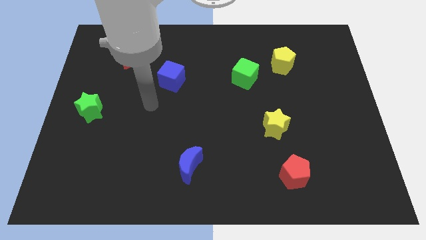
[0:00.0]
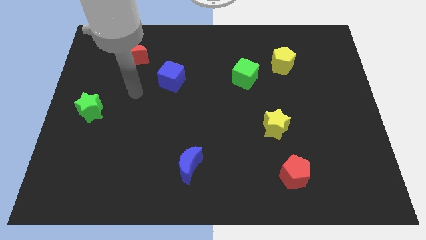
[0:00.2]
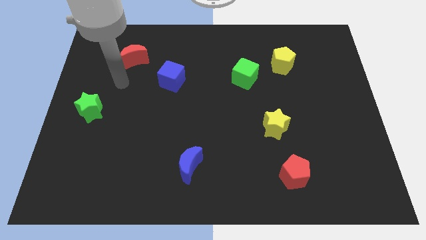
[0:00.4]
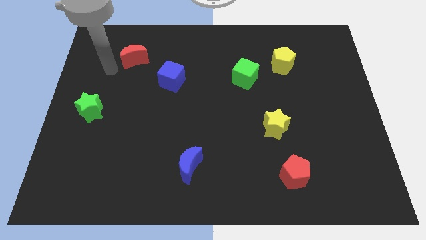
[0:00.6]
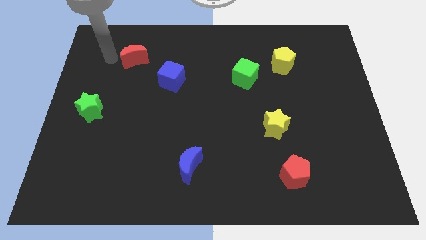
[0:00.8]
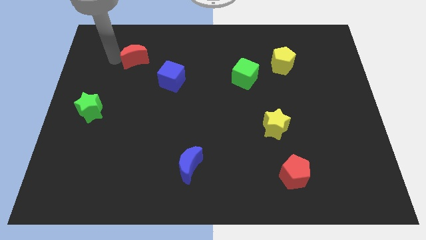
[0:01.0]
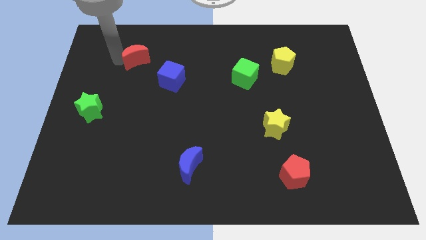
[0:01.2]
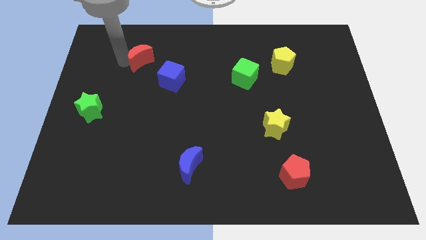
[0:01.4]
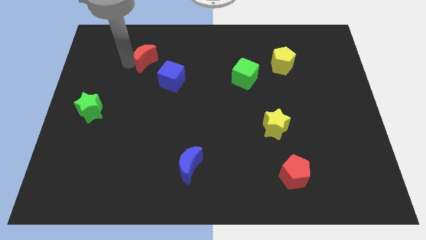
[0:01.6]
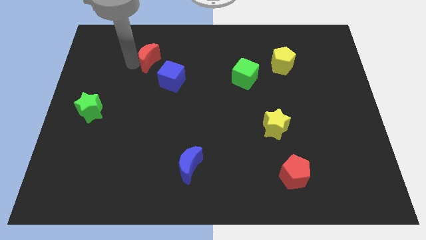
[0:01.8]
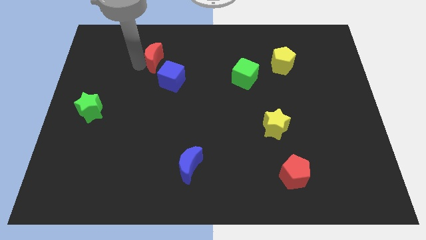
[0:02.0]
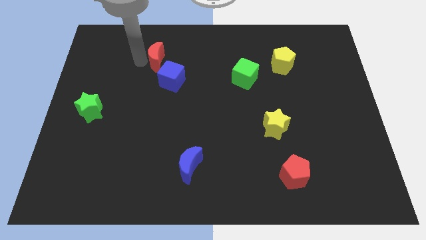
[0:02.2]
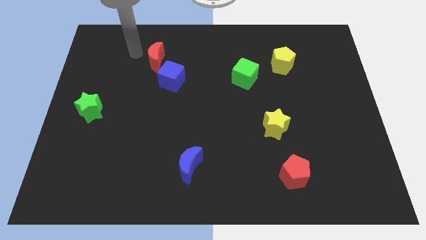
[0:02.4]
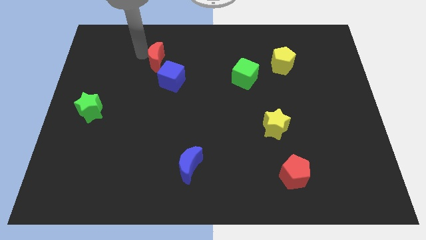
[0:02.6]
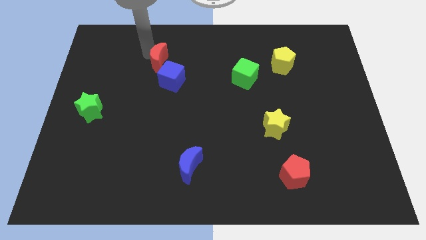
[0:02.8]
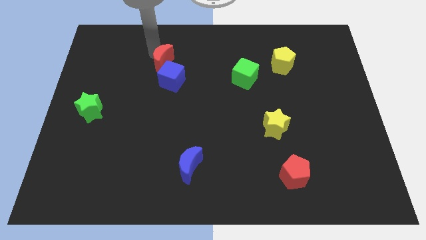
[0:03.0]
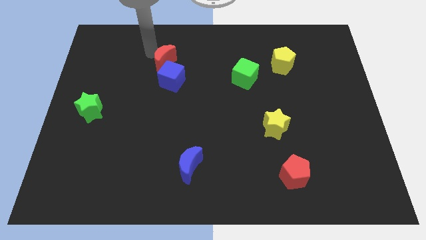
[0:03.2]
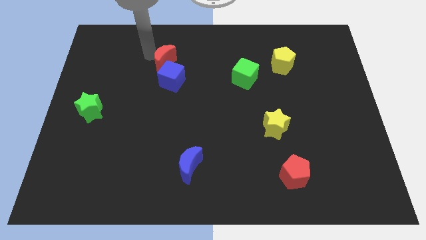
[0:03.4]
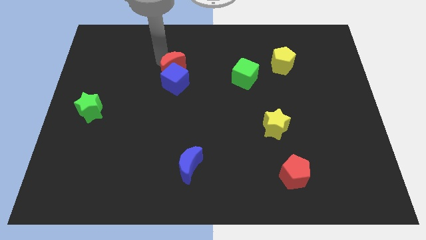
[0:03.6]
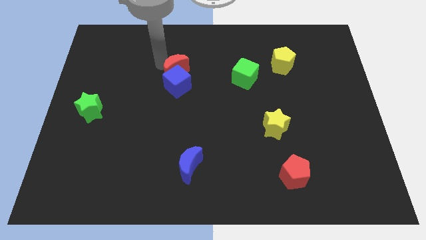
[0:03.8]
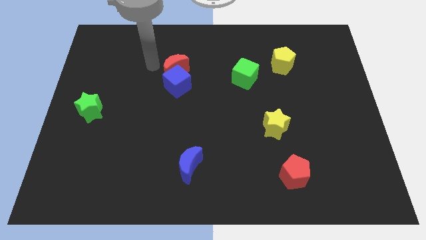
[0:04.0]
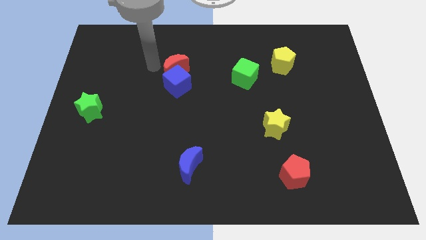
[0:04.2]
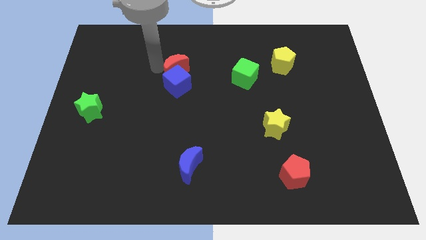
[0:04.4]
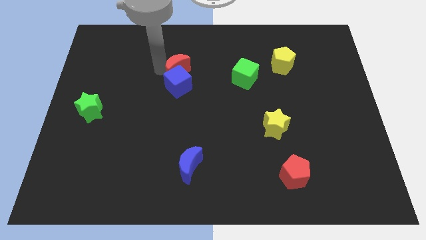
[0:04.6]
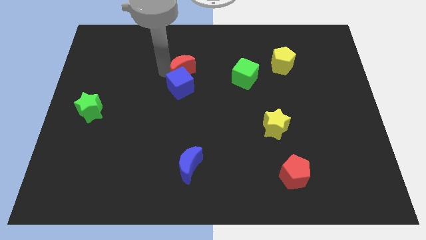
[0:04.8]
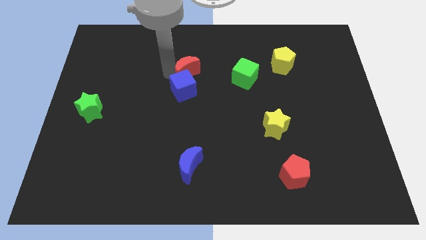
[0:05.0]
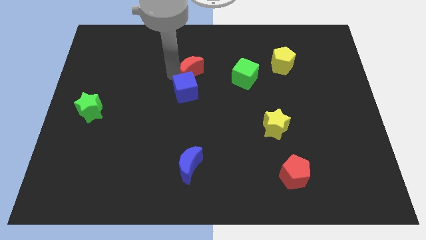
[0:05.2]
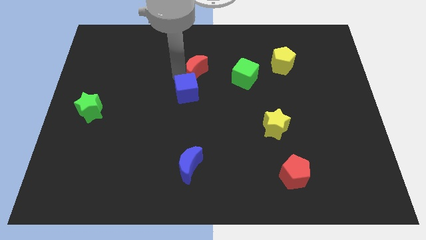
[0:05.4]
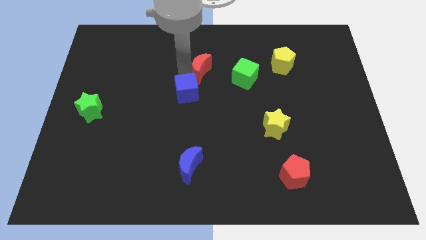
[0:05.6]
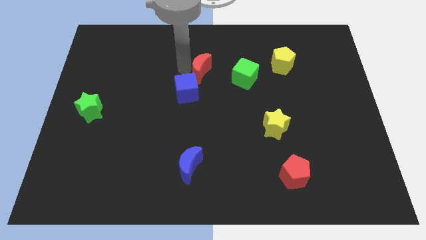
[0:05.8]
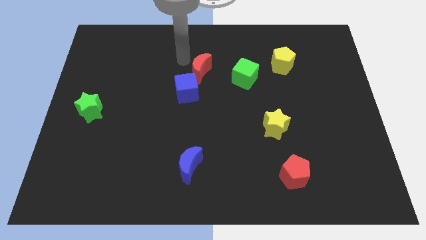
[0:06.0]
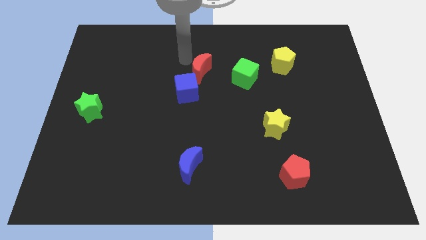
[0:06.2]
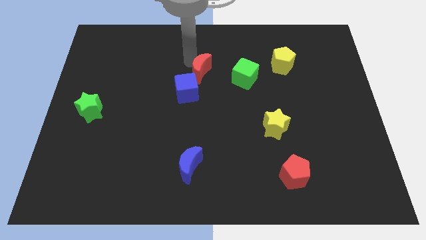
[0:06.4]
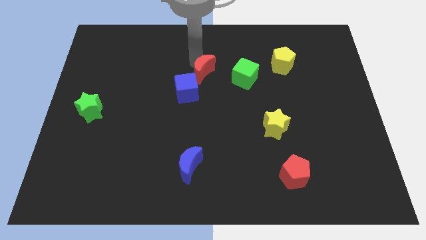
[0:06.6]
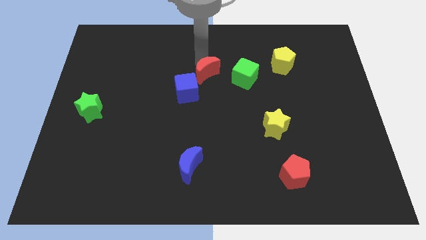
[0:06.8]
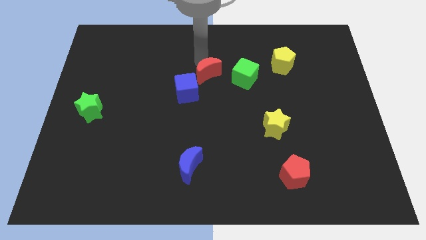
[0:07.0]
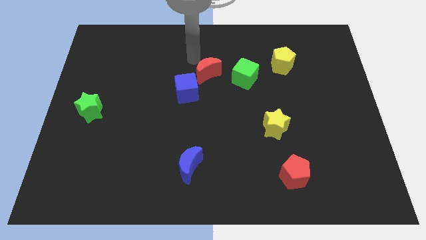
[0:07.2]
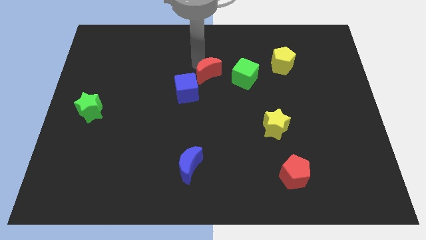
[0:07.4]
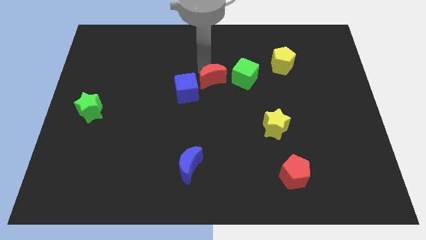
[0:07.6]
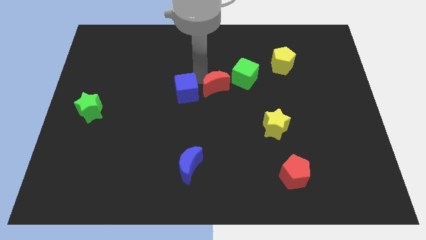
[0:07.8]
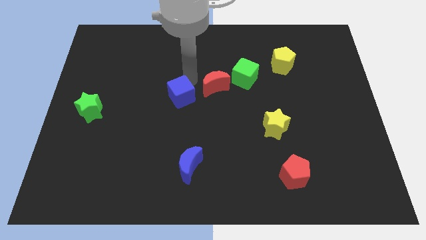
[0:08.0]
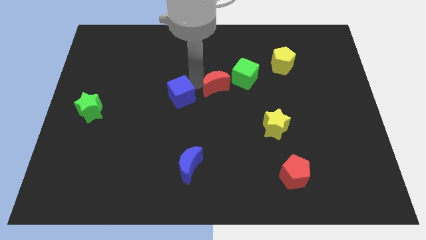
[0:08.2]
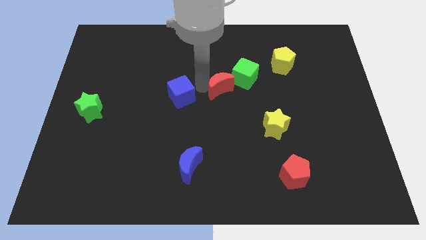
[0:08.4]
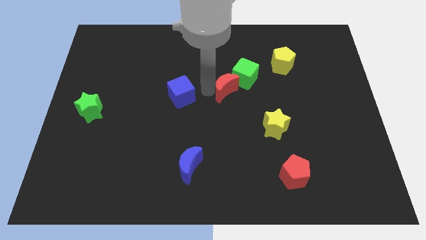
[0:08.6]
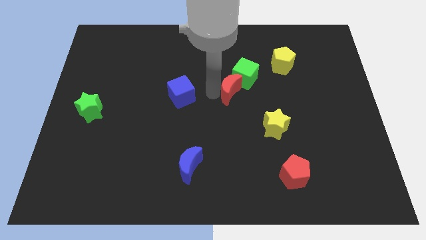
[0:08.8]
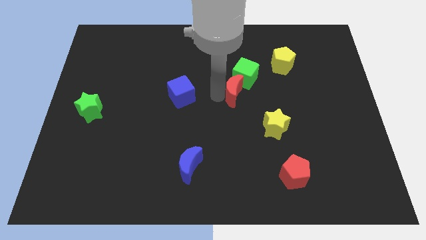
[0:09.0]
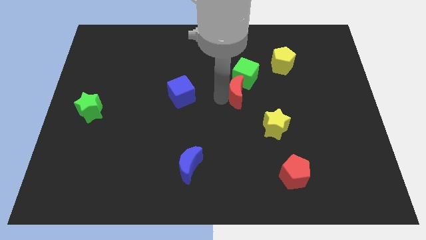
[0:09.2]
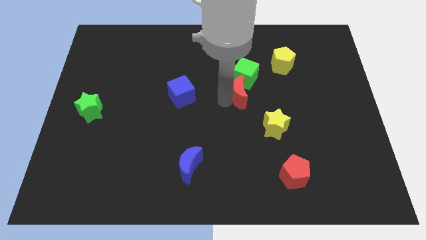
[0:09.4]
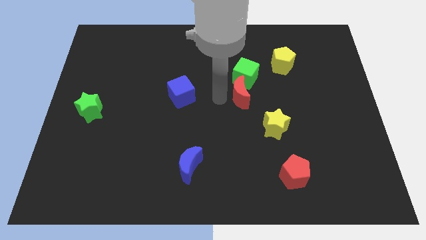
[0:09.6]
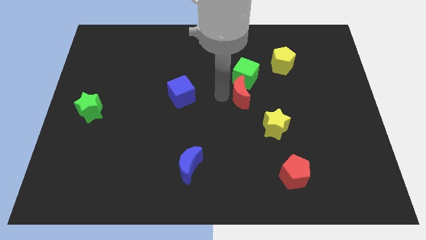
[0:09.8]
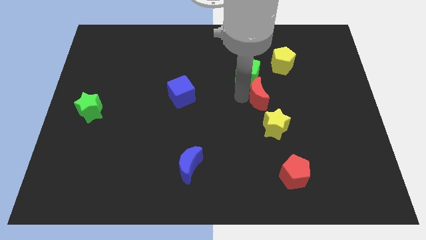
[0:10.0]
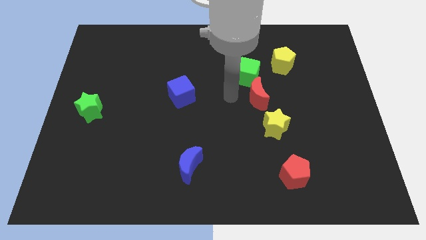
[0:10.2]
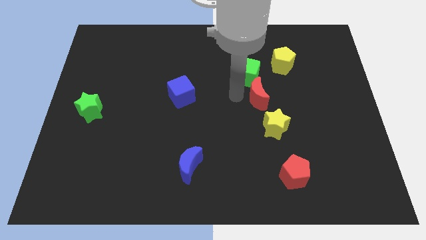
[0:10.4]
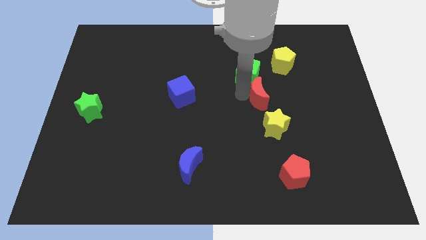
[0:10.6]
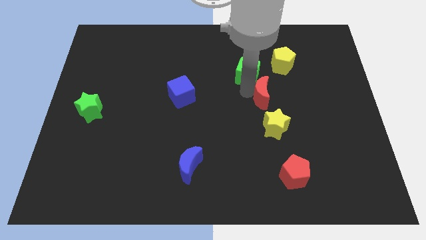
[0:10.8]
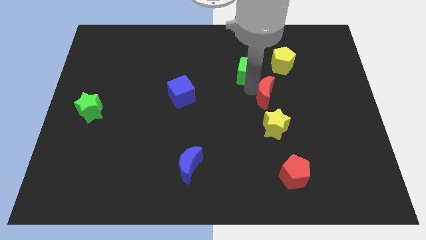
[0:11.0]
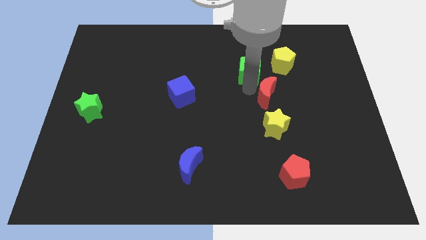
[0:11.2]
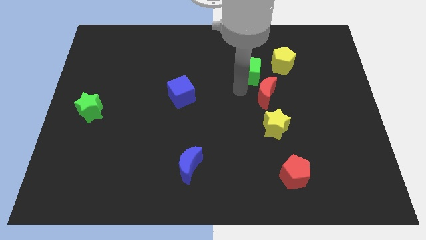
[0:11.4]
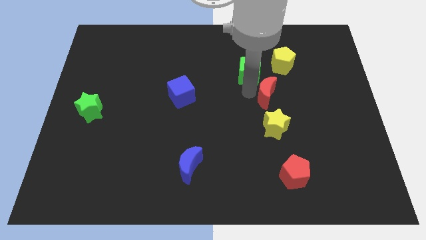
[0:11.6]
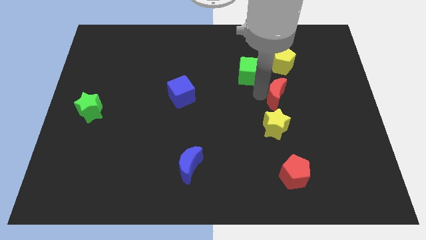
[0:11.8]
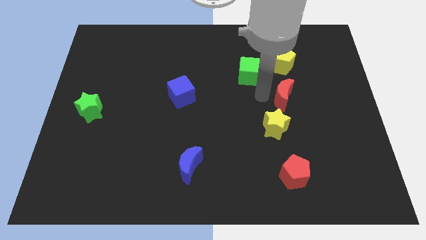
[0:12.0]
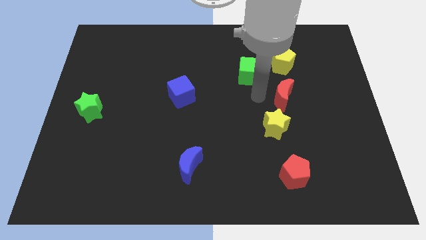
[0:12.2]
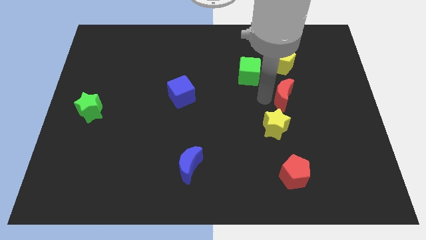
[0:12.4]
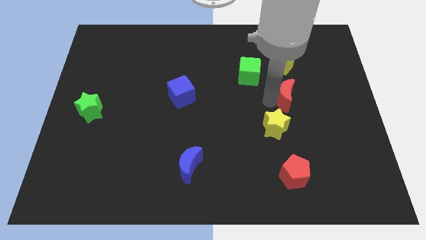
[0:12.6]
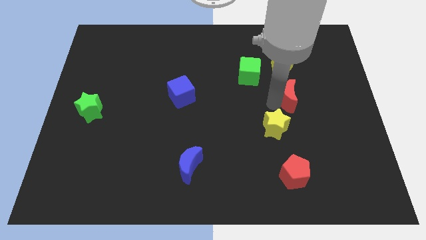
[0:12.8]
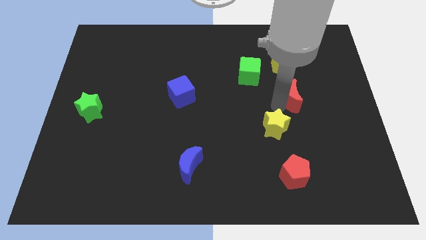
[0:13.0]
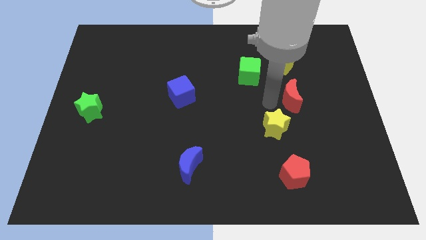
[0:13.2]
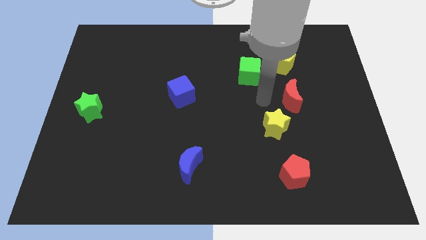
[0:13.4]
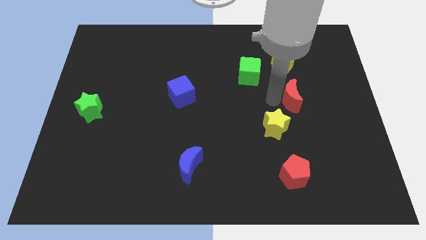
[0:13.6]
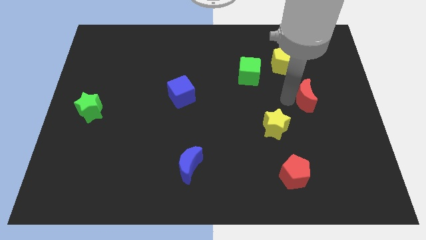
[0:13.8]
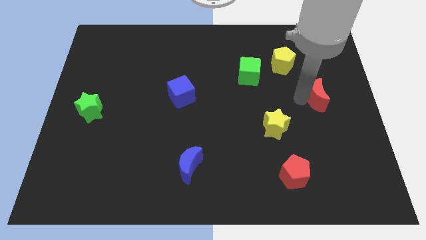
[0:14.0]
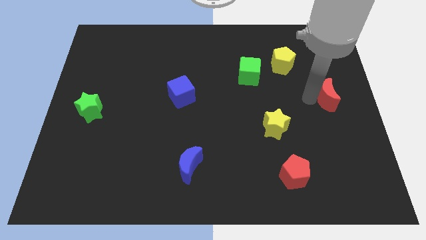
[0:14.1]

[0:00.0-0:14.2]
push the red moon to the right side of the board
